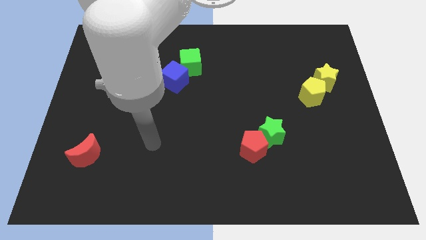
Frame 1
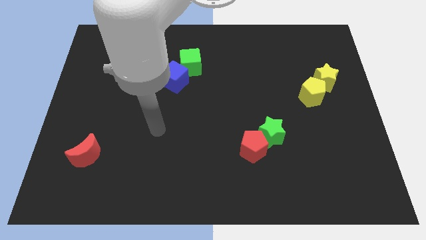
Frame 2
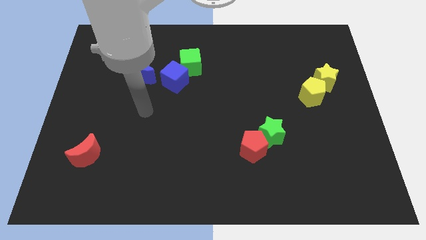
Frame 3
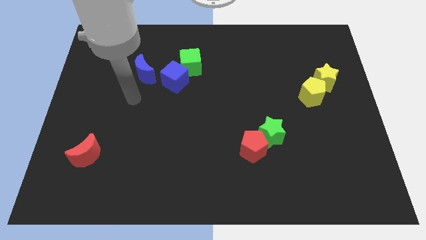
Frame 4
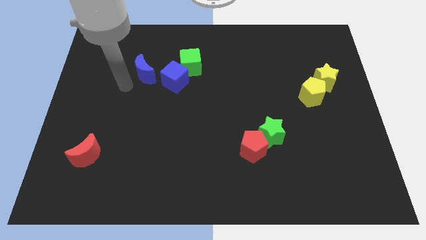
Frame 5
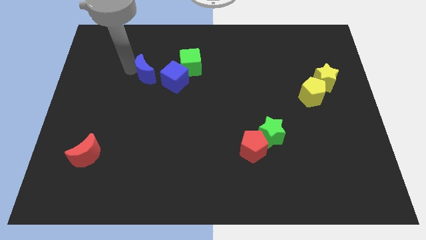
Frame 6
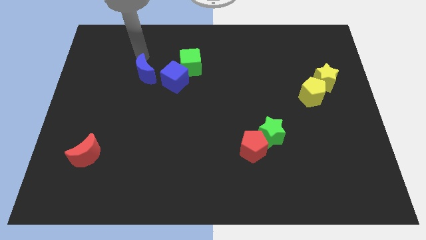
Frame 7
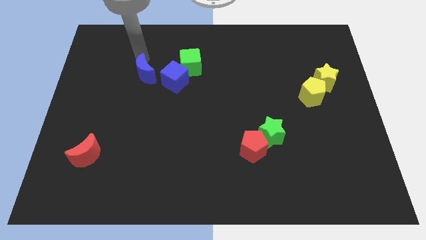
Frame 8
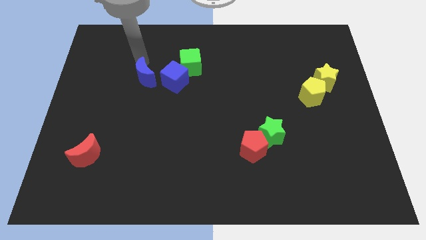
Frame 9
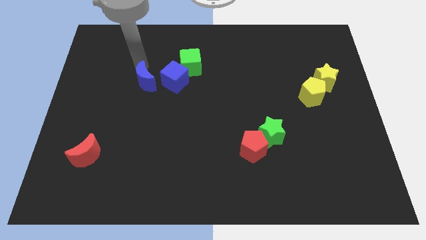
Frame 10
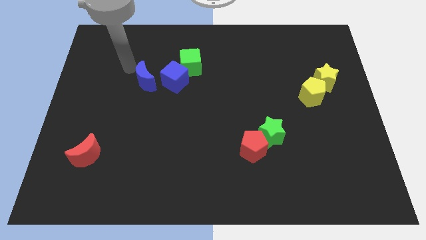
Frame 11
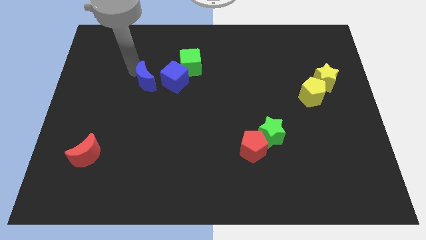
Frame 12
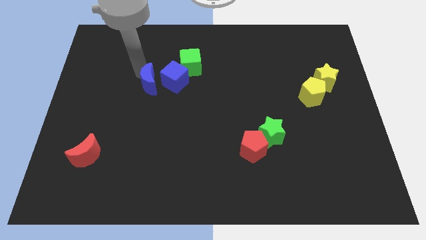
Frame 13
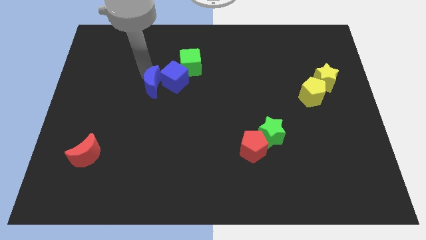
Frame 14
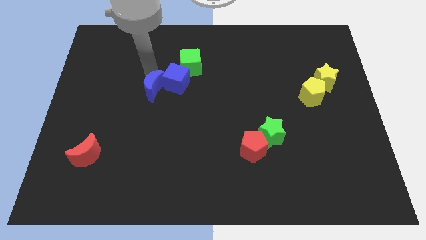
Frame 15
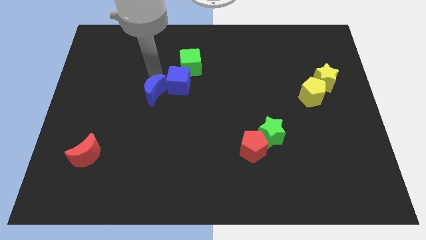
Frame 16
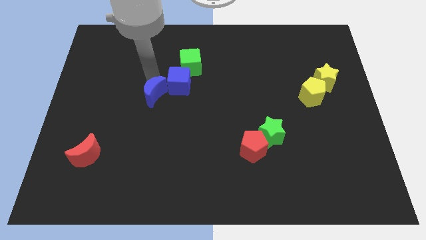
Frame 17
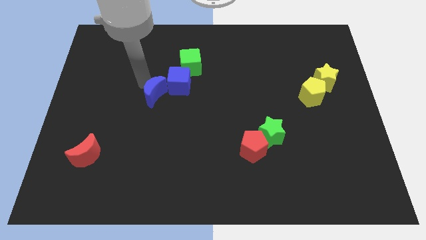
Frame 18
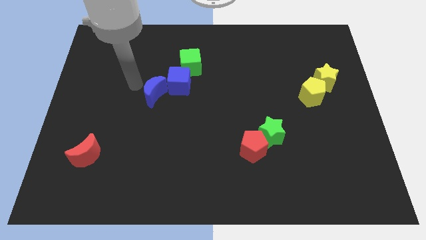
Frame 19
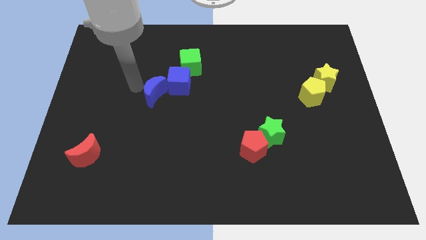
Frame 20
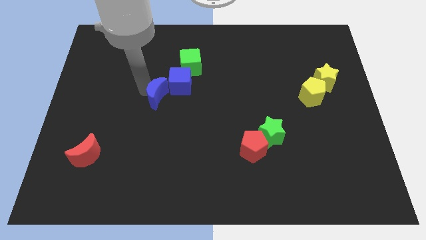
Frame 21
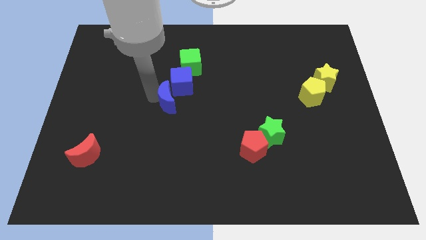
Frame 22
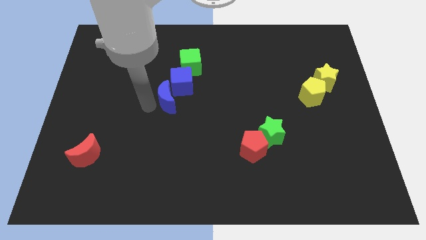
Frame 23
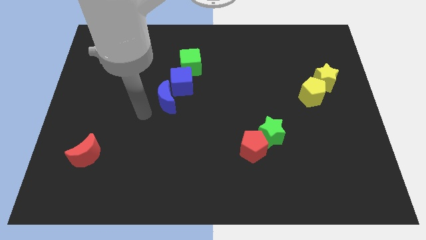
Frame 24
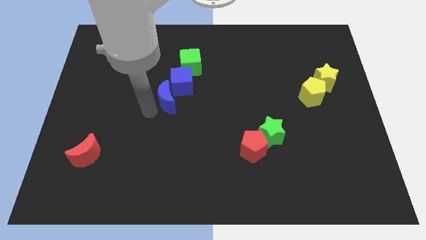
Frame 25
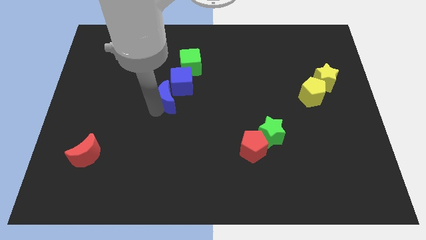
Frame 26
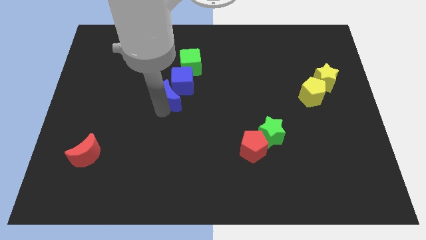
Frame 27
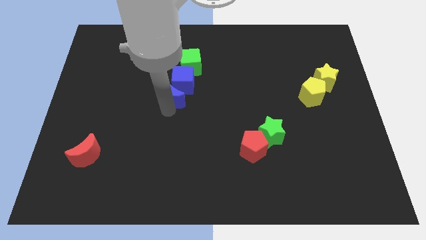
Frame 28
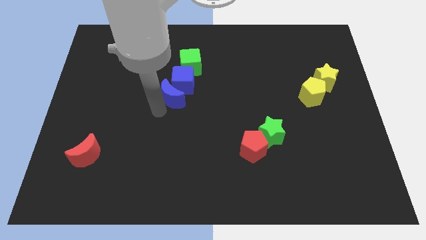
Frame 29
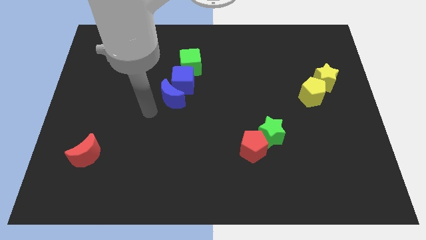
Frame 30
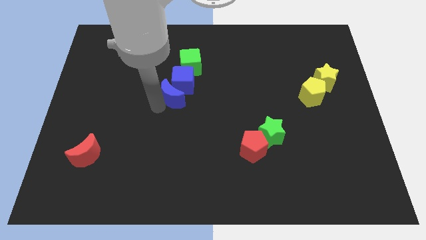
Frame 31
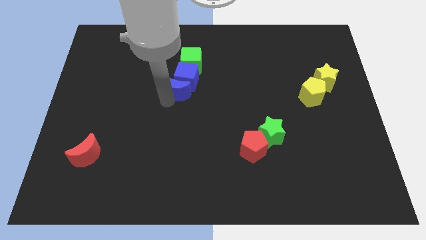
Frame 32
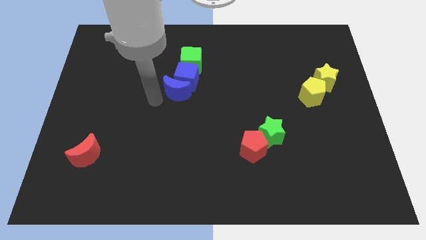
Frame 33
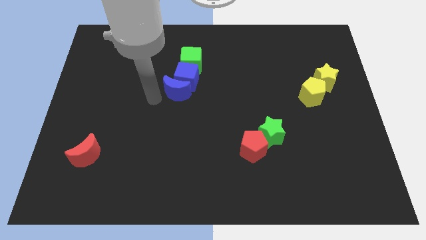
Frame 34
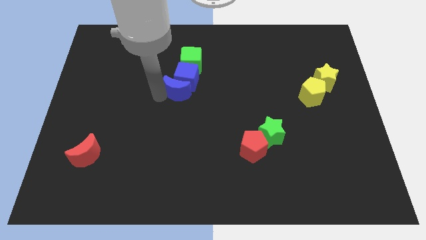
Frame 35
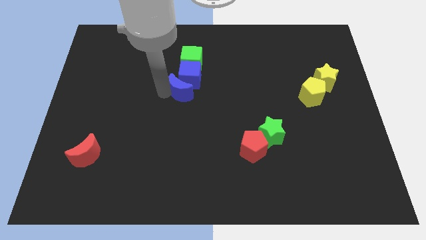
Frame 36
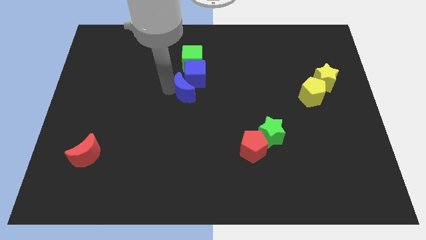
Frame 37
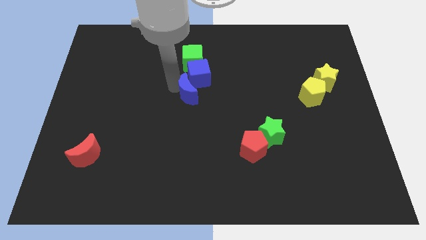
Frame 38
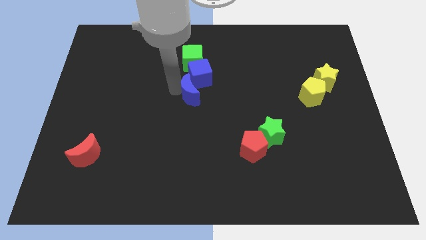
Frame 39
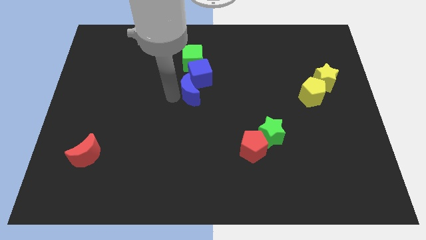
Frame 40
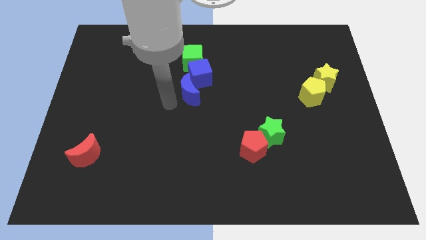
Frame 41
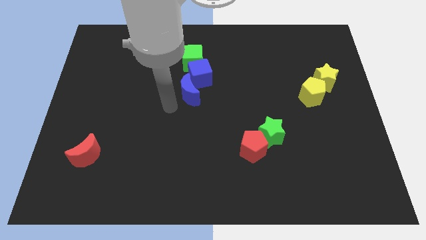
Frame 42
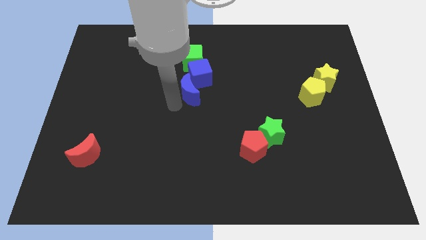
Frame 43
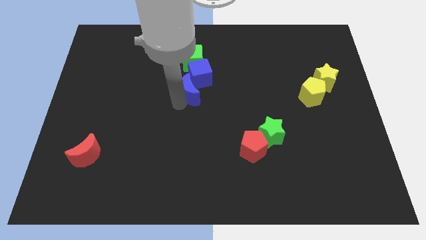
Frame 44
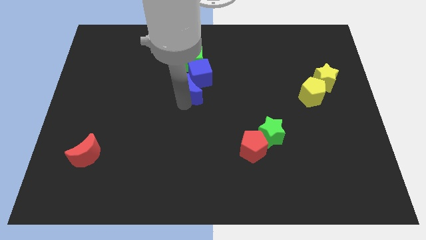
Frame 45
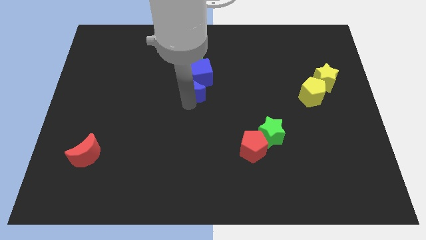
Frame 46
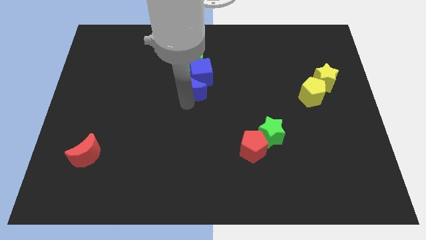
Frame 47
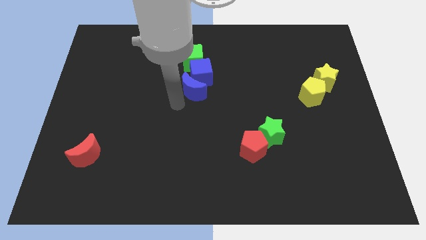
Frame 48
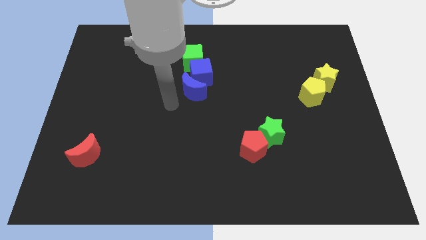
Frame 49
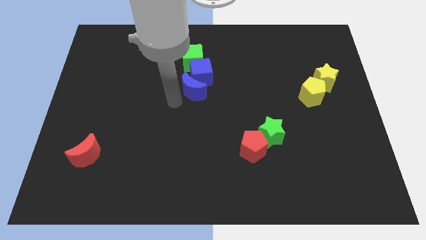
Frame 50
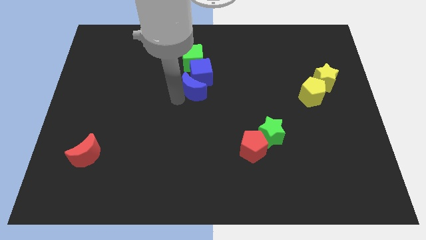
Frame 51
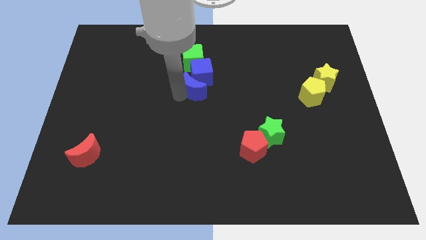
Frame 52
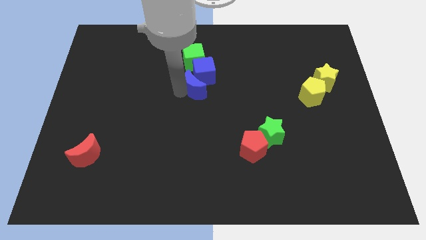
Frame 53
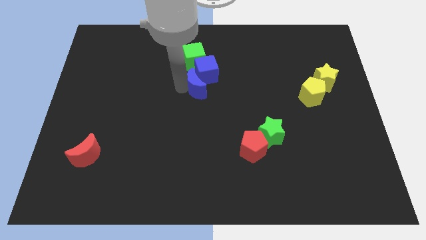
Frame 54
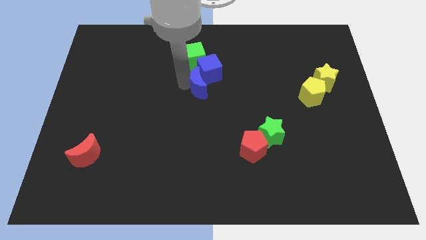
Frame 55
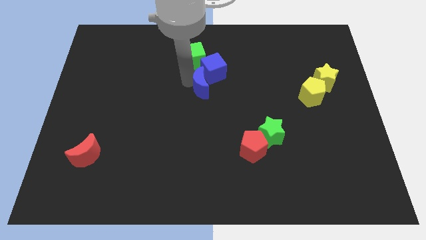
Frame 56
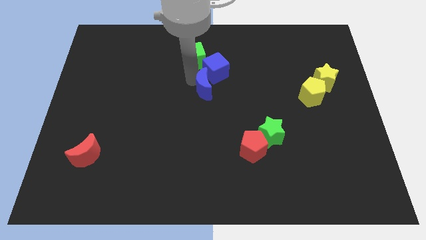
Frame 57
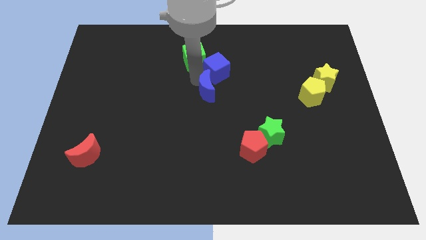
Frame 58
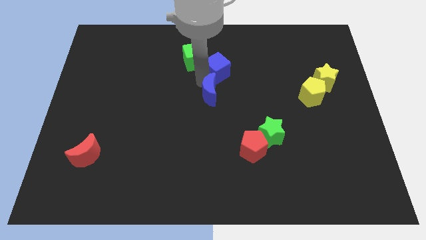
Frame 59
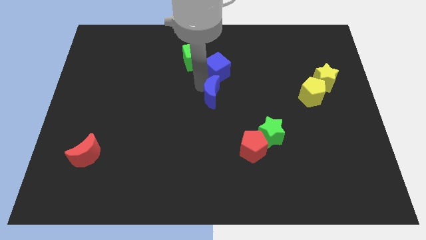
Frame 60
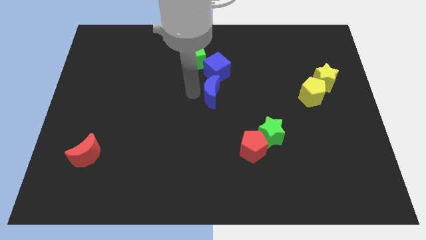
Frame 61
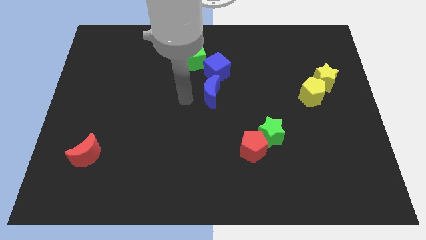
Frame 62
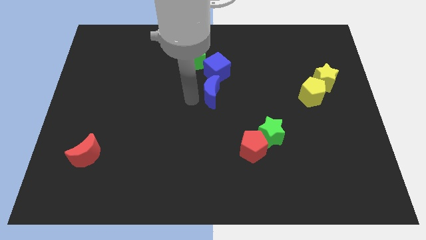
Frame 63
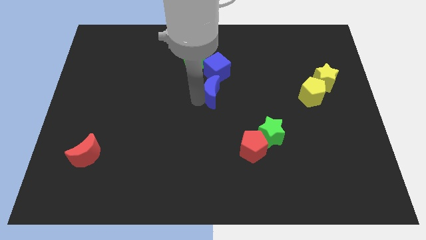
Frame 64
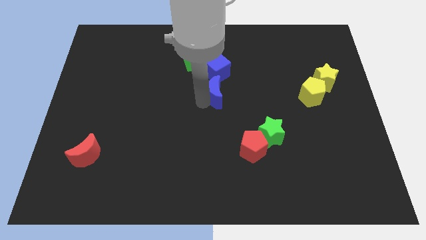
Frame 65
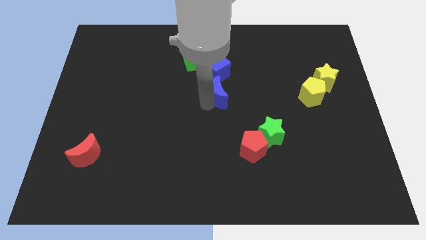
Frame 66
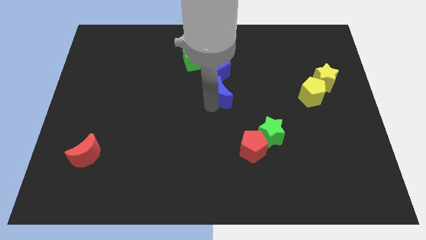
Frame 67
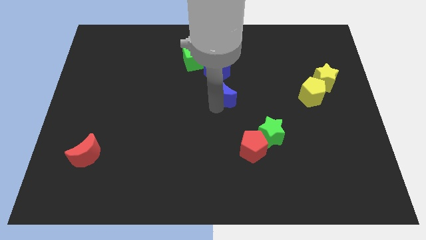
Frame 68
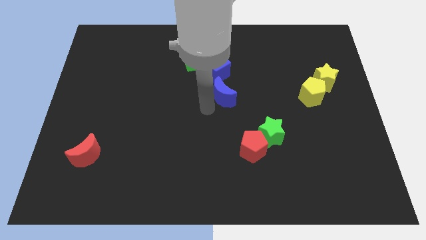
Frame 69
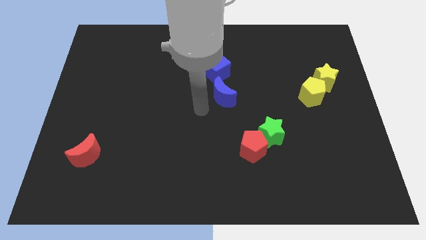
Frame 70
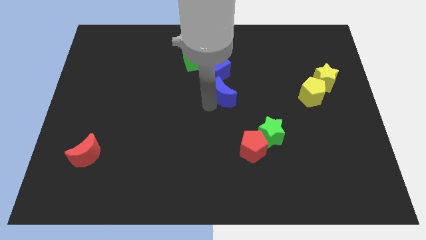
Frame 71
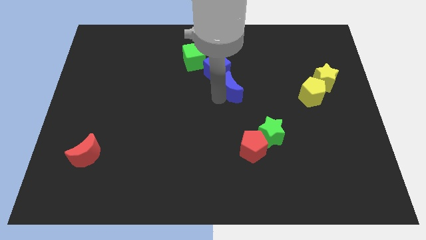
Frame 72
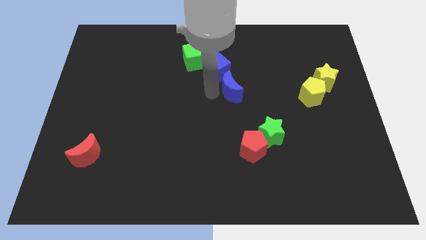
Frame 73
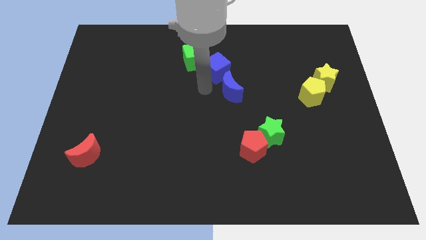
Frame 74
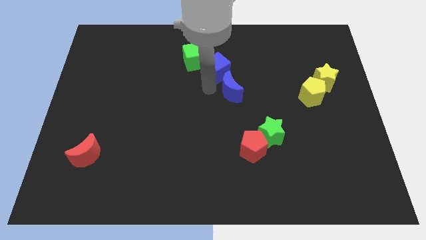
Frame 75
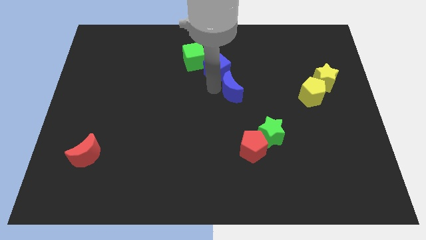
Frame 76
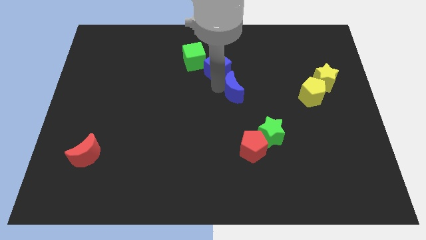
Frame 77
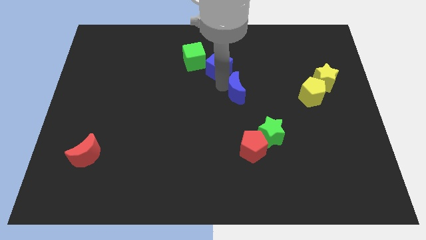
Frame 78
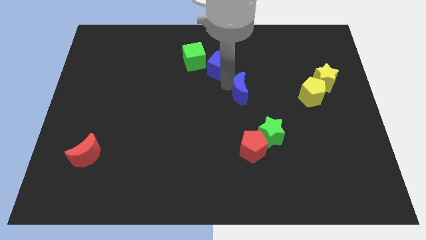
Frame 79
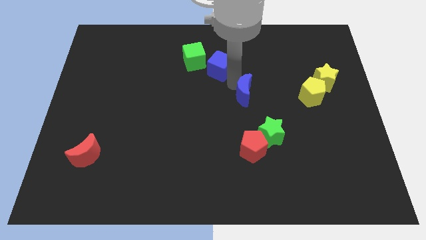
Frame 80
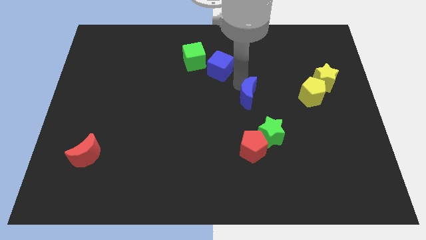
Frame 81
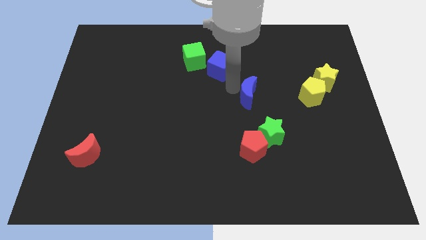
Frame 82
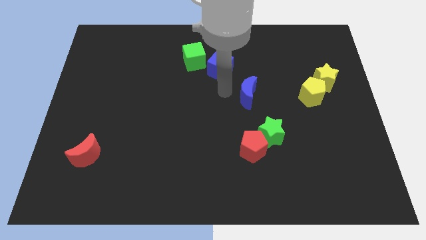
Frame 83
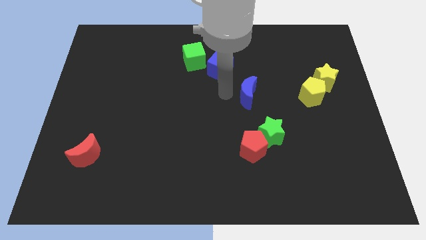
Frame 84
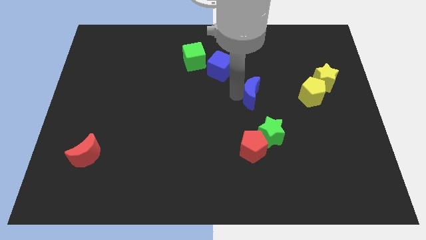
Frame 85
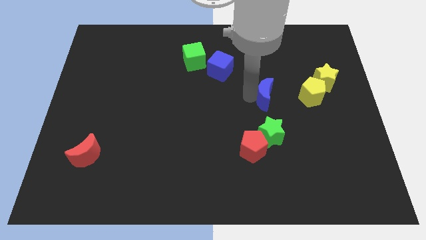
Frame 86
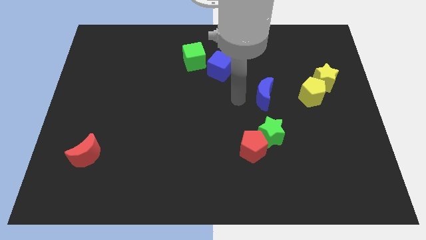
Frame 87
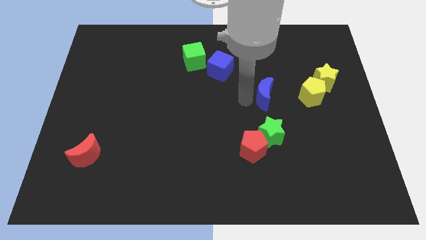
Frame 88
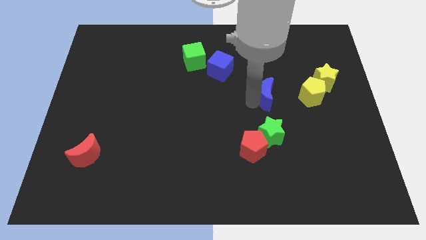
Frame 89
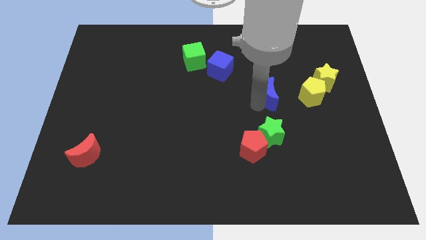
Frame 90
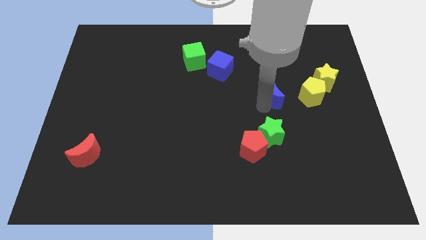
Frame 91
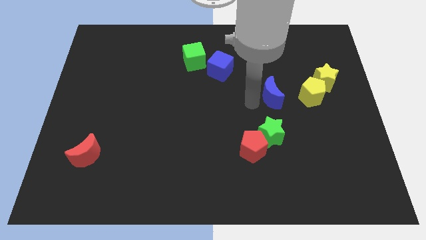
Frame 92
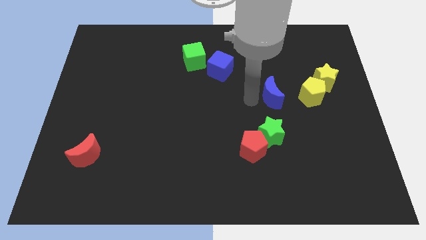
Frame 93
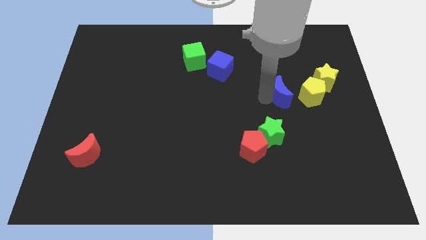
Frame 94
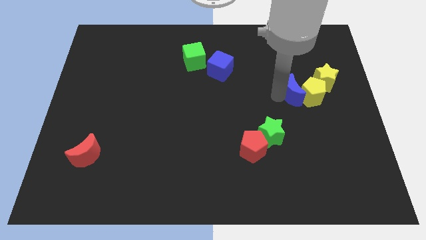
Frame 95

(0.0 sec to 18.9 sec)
move the blue moon towards the yellow pentagon
